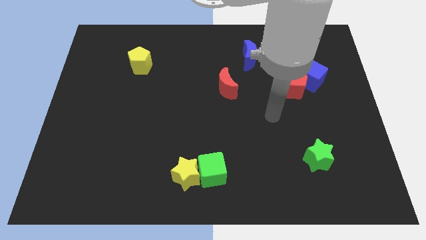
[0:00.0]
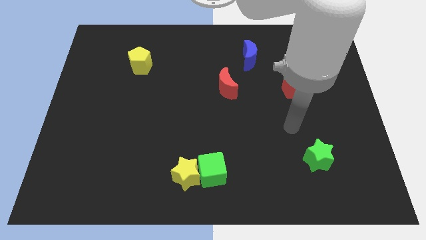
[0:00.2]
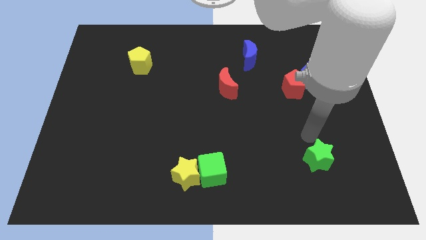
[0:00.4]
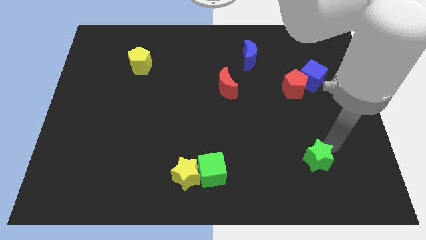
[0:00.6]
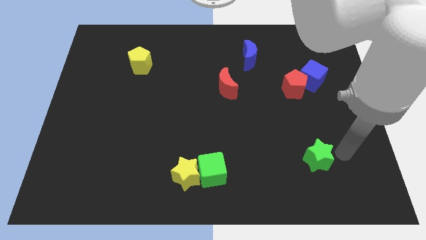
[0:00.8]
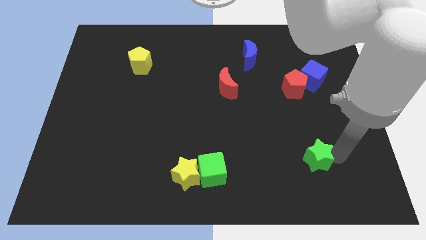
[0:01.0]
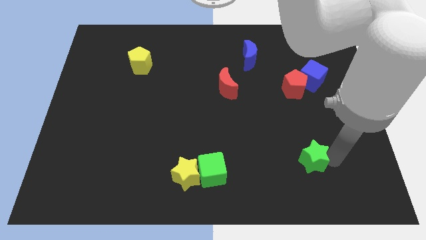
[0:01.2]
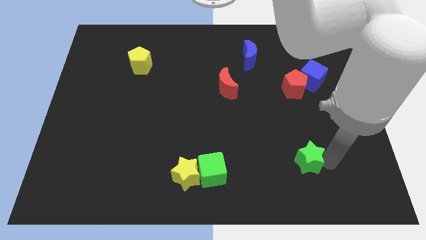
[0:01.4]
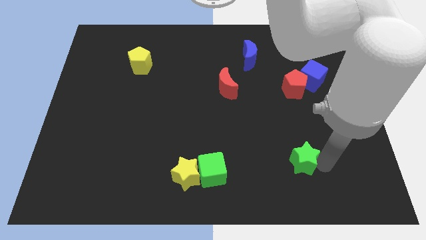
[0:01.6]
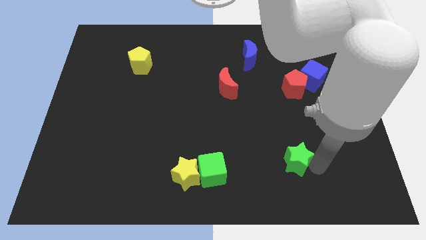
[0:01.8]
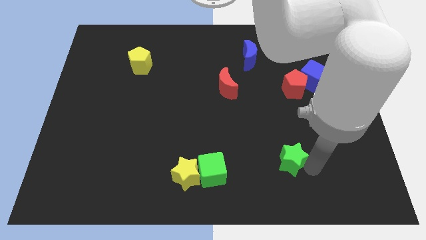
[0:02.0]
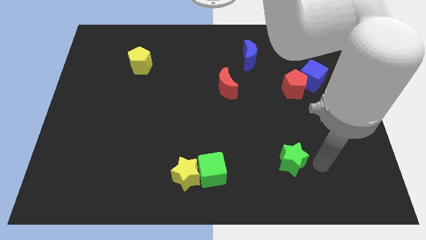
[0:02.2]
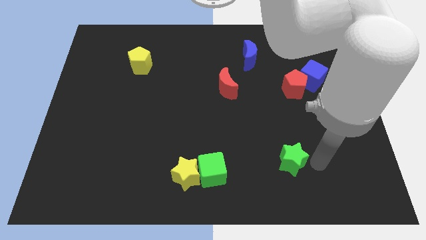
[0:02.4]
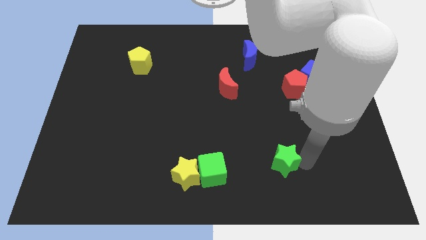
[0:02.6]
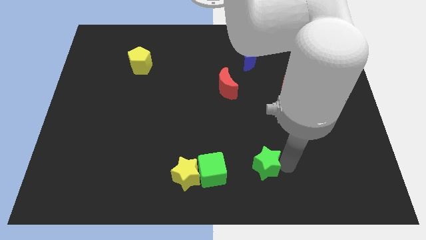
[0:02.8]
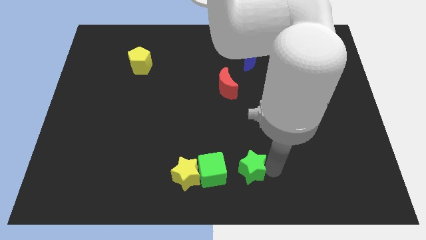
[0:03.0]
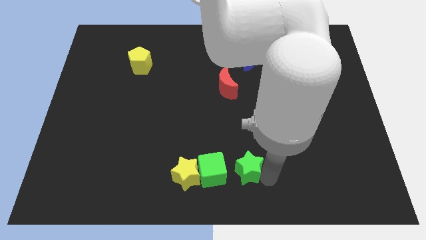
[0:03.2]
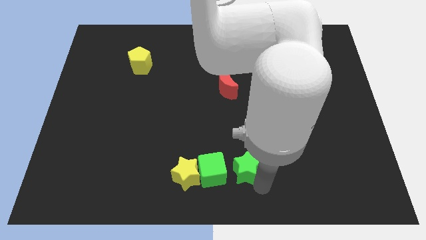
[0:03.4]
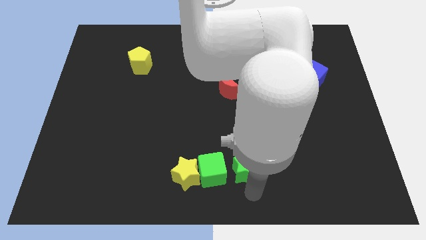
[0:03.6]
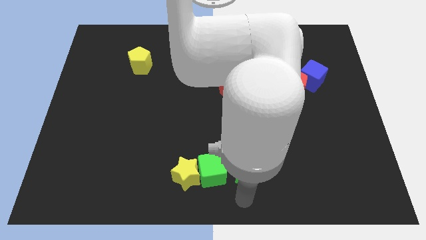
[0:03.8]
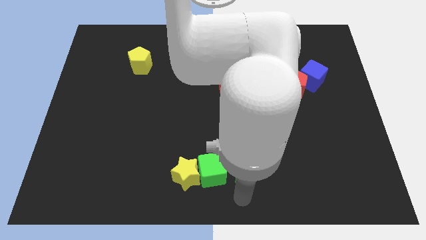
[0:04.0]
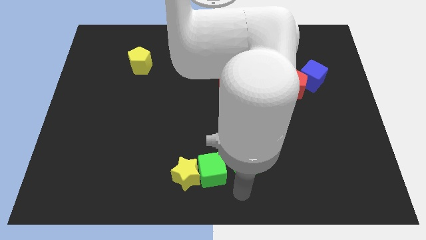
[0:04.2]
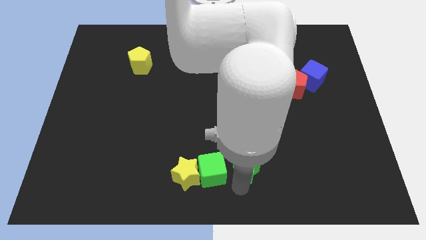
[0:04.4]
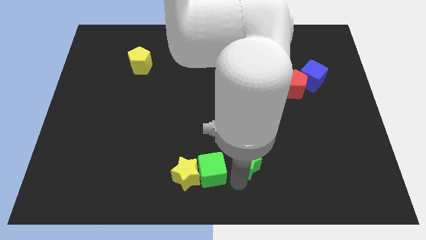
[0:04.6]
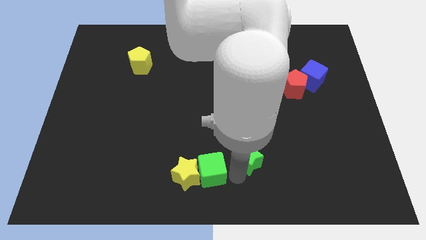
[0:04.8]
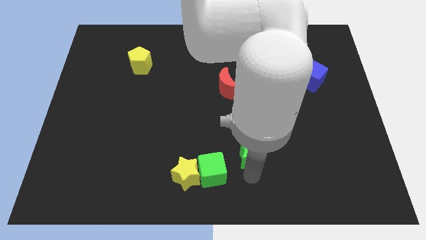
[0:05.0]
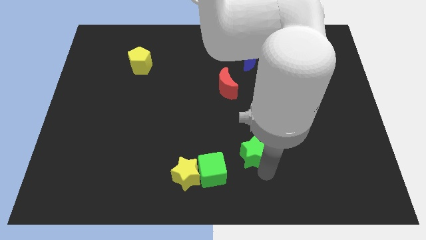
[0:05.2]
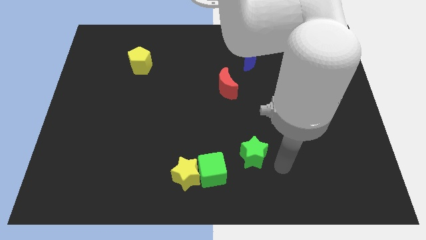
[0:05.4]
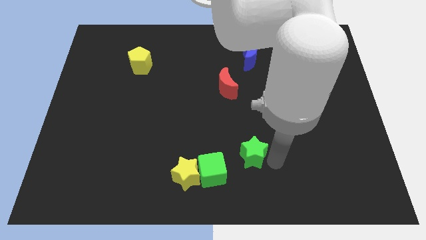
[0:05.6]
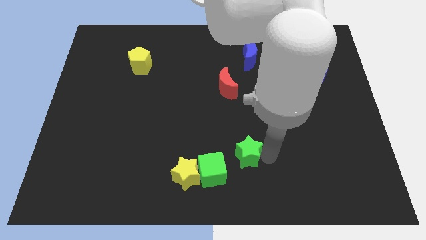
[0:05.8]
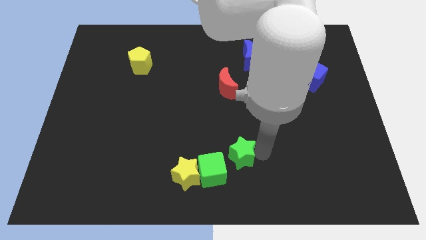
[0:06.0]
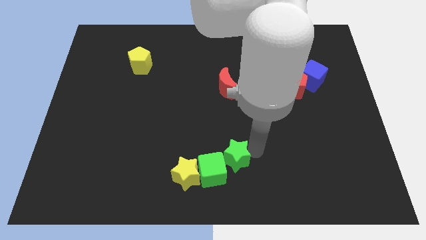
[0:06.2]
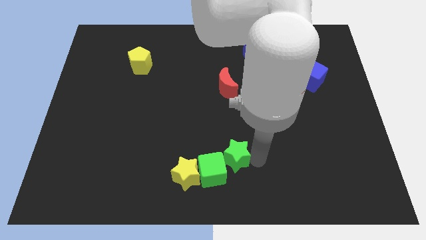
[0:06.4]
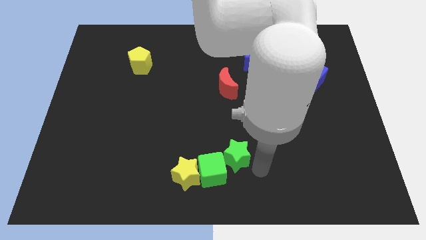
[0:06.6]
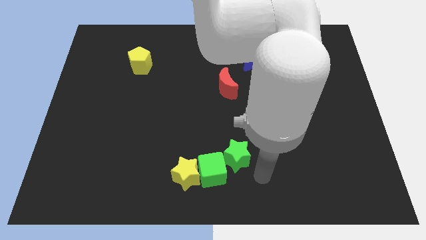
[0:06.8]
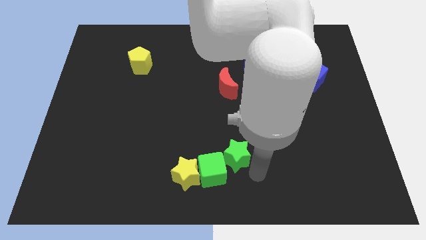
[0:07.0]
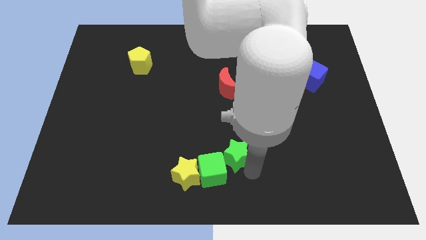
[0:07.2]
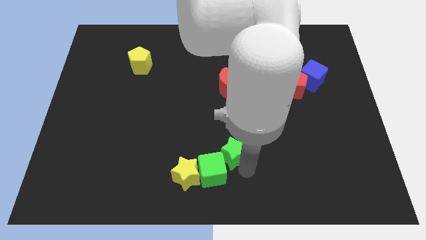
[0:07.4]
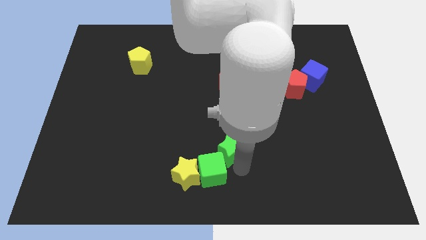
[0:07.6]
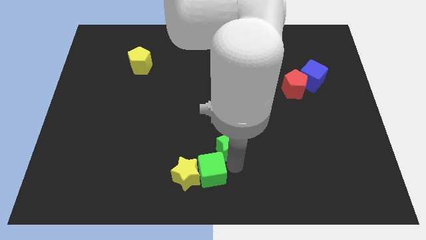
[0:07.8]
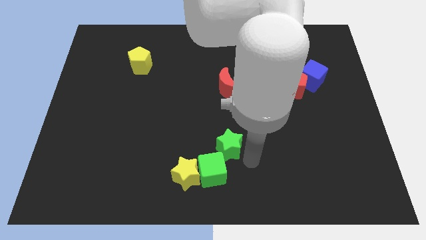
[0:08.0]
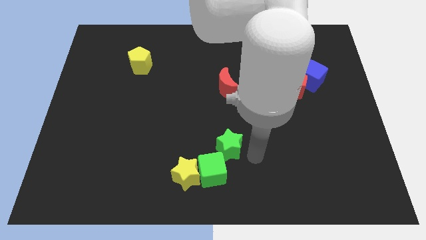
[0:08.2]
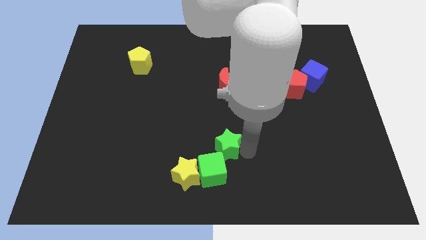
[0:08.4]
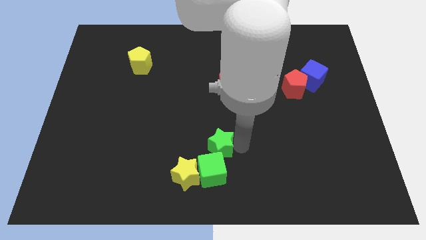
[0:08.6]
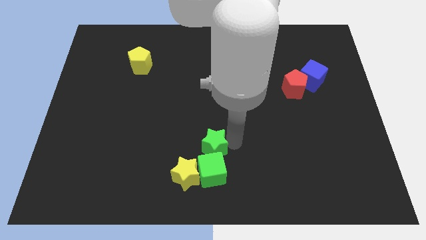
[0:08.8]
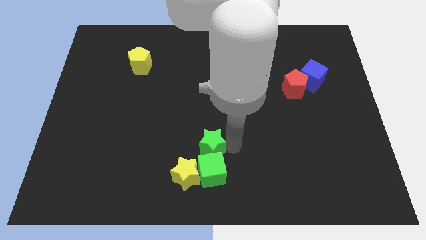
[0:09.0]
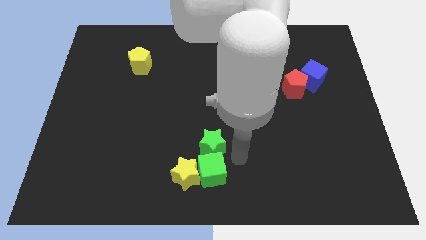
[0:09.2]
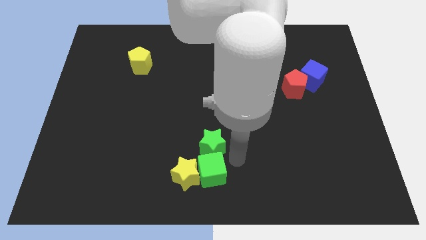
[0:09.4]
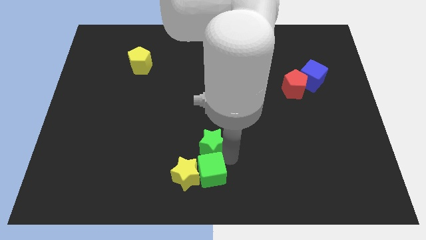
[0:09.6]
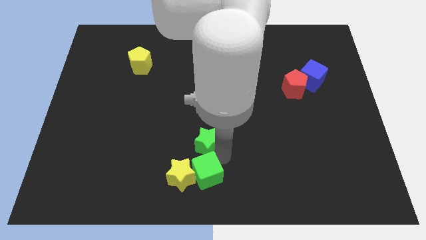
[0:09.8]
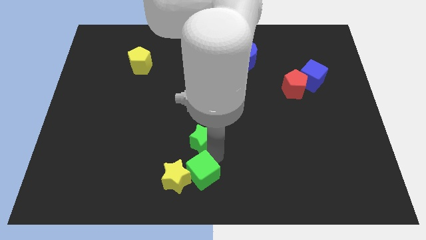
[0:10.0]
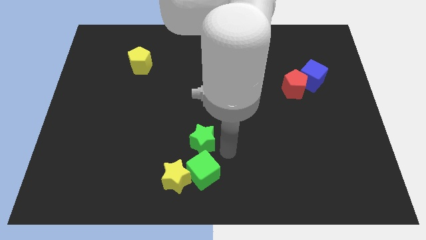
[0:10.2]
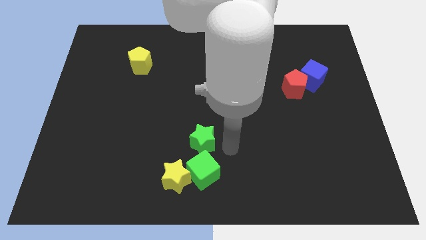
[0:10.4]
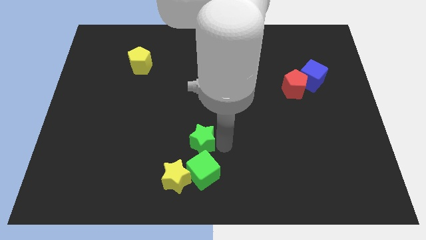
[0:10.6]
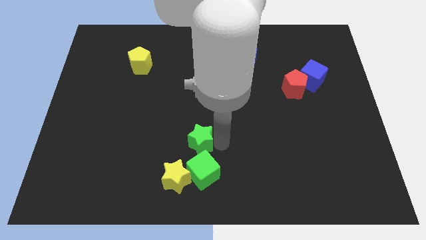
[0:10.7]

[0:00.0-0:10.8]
push the green star to the top side of the yellow star

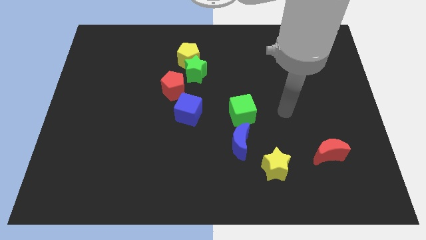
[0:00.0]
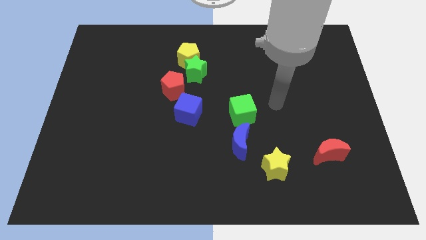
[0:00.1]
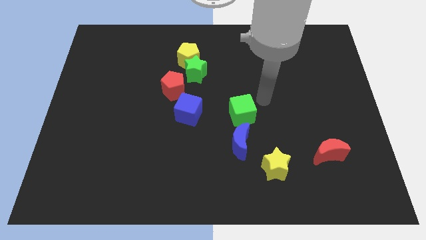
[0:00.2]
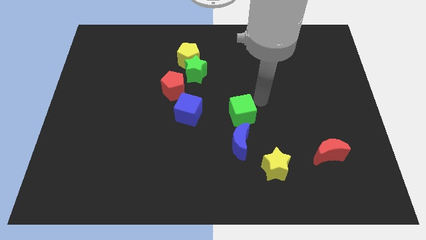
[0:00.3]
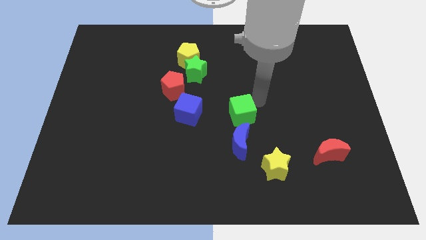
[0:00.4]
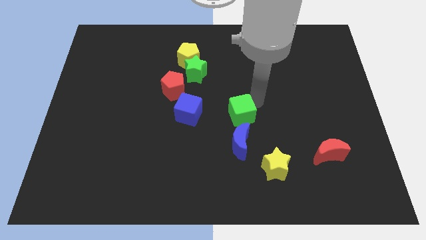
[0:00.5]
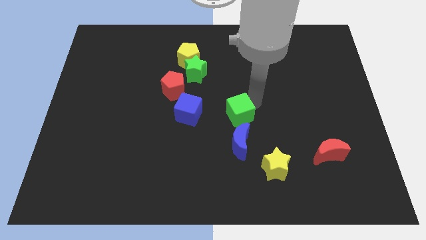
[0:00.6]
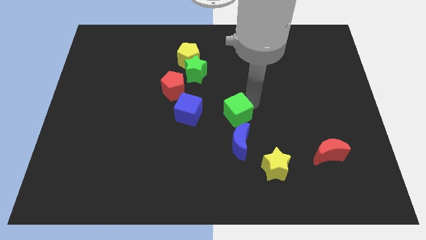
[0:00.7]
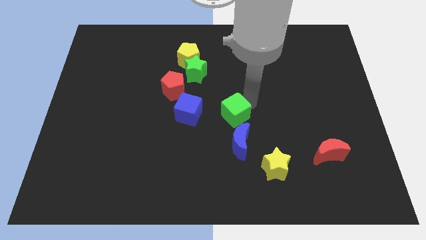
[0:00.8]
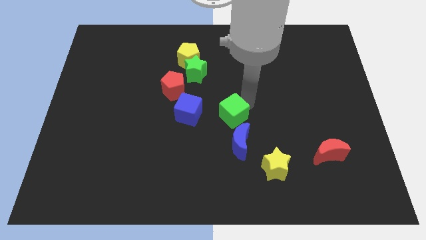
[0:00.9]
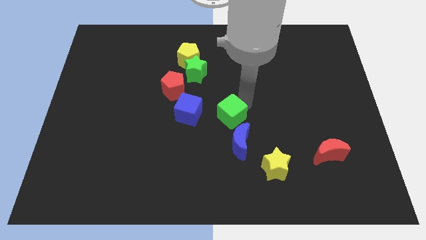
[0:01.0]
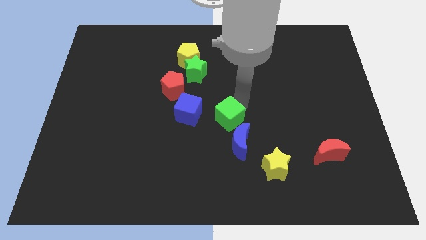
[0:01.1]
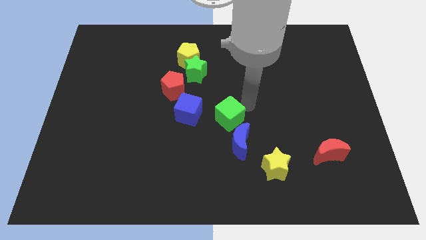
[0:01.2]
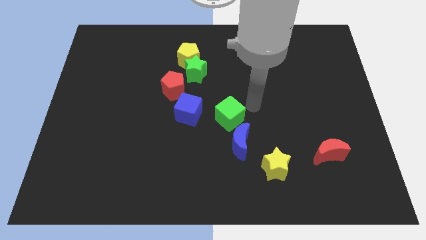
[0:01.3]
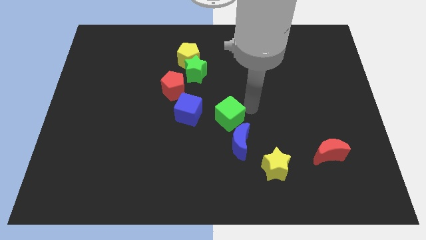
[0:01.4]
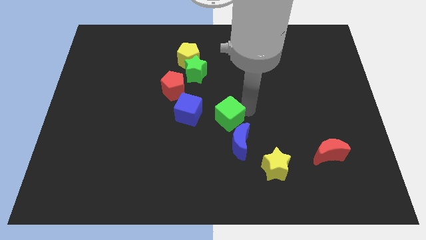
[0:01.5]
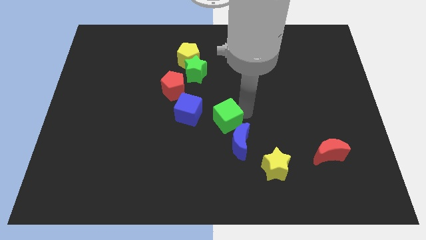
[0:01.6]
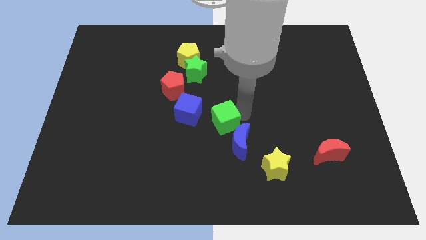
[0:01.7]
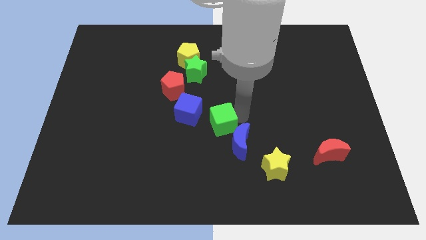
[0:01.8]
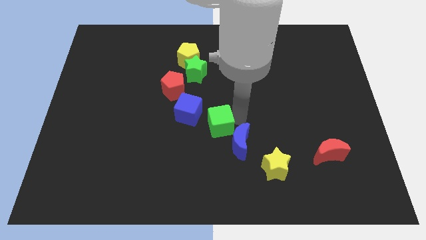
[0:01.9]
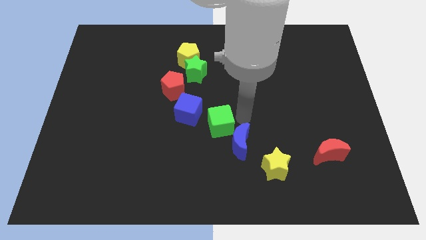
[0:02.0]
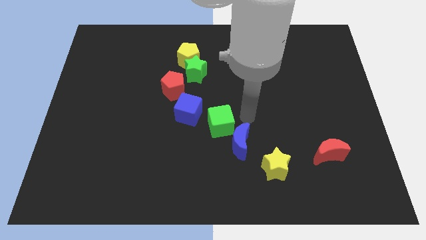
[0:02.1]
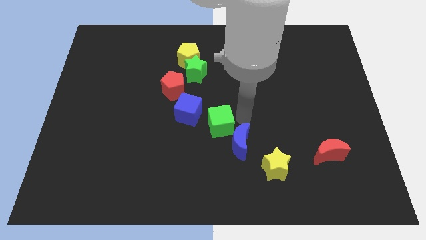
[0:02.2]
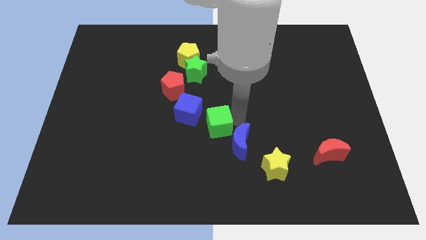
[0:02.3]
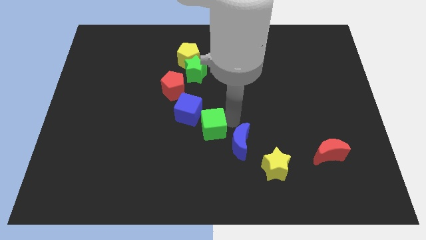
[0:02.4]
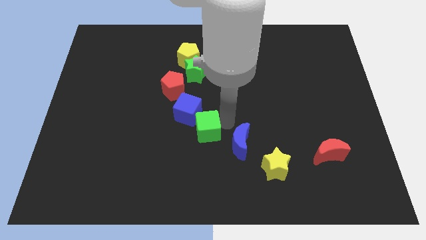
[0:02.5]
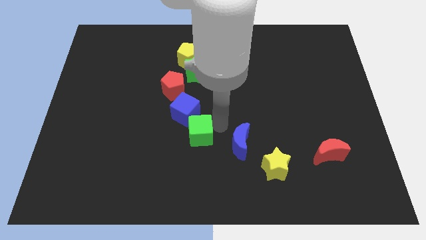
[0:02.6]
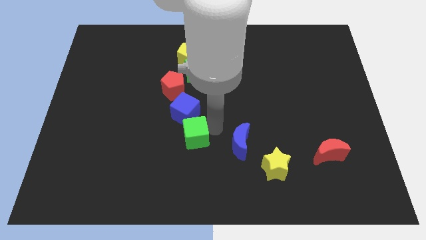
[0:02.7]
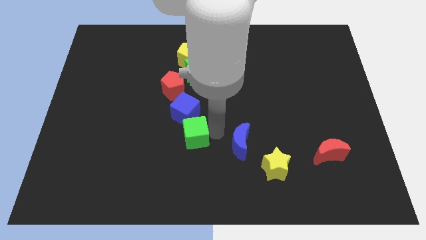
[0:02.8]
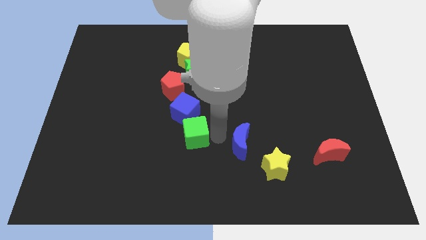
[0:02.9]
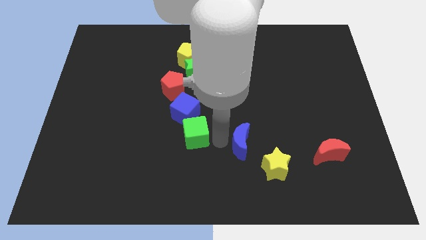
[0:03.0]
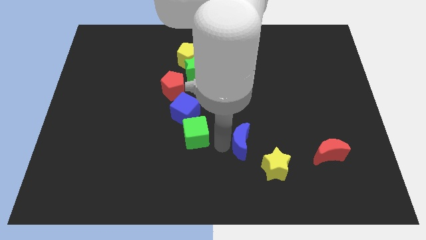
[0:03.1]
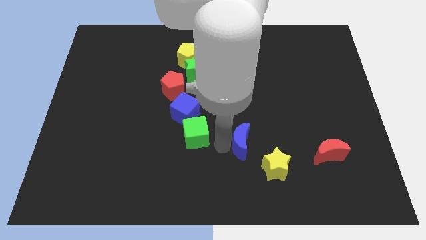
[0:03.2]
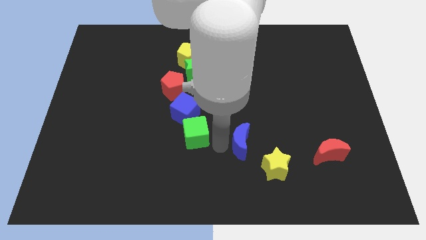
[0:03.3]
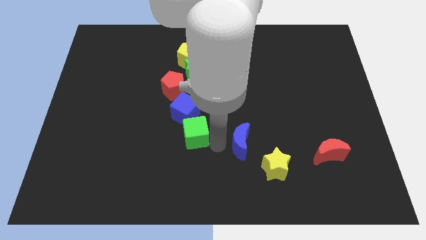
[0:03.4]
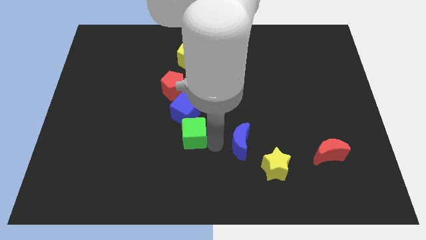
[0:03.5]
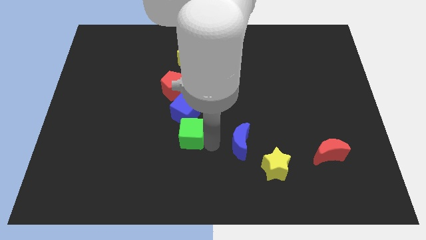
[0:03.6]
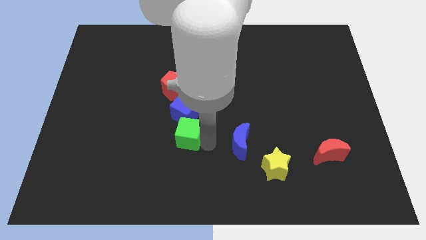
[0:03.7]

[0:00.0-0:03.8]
push the green cube to the bottom side of the red pentagon
